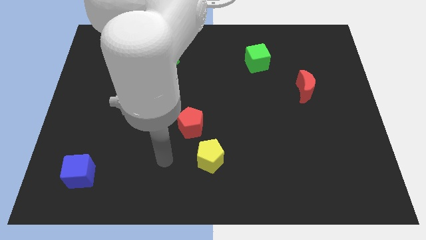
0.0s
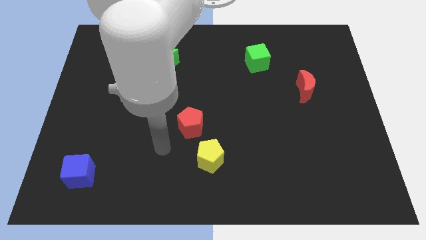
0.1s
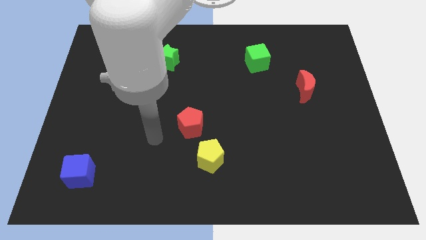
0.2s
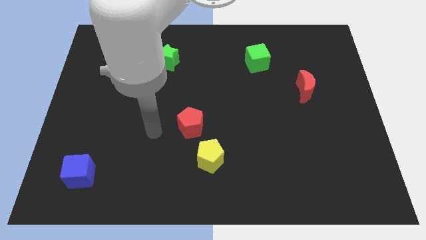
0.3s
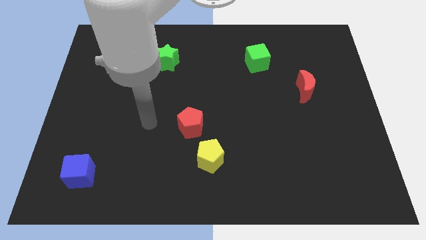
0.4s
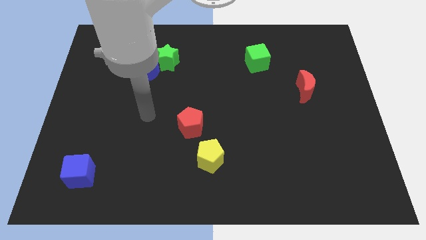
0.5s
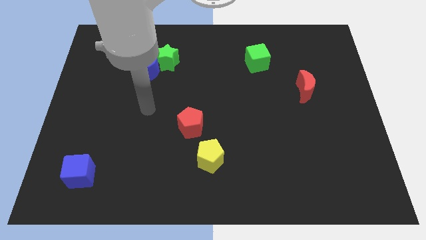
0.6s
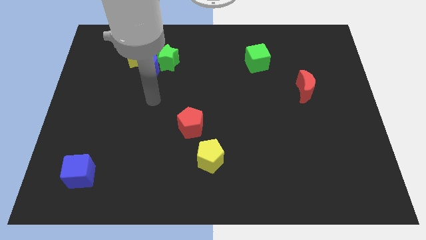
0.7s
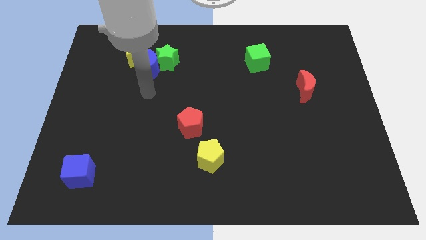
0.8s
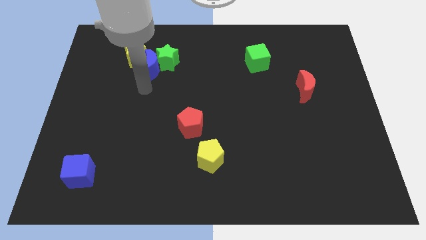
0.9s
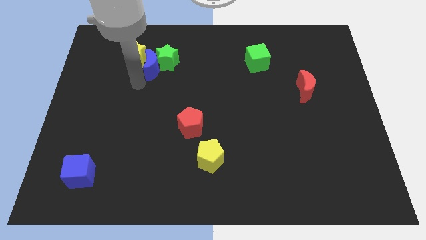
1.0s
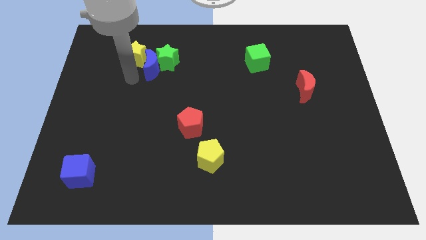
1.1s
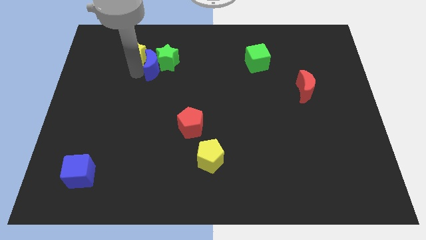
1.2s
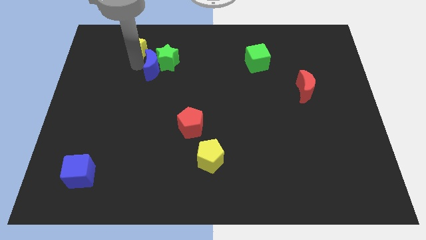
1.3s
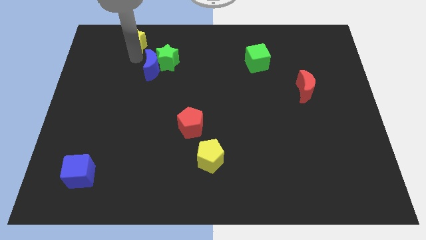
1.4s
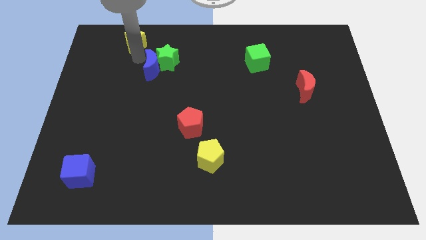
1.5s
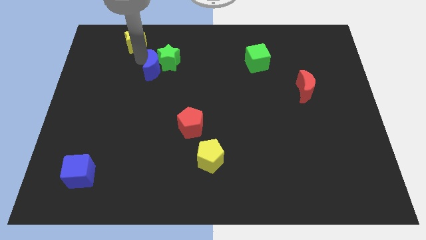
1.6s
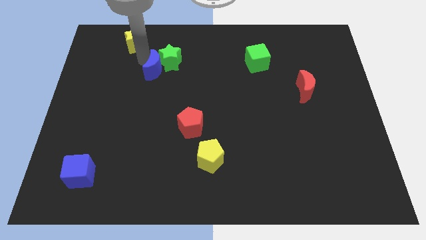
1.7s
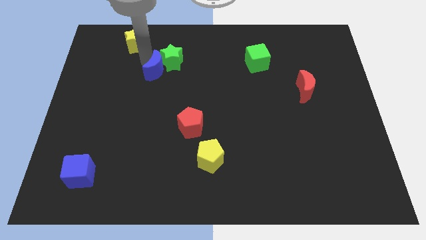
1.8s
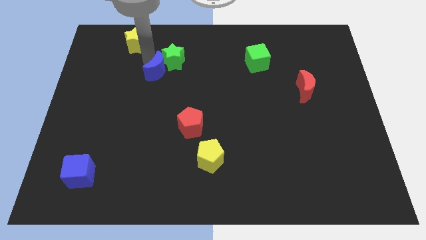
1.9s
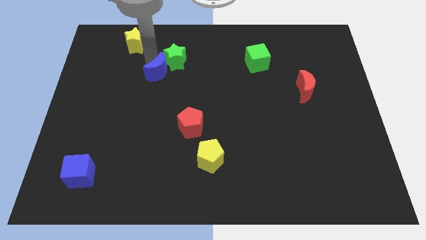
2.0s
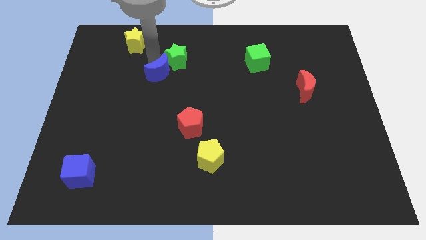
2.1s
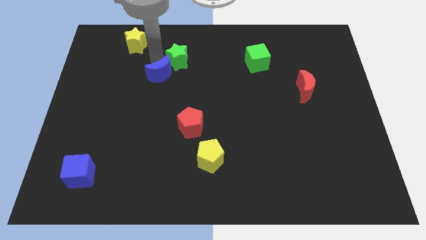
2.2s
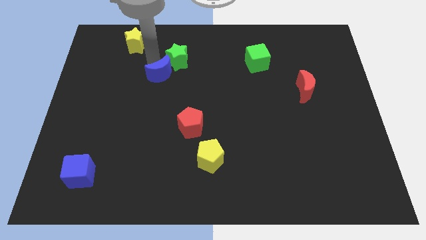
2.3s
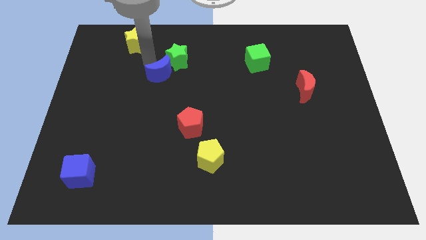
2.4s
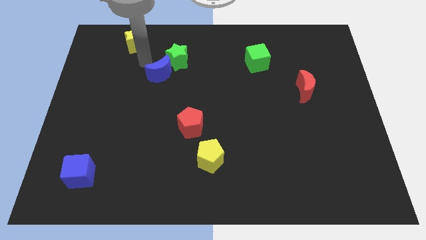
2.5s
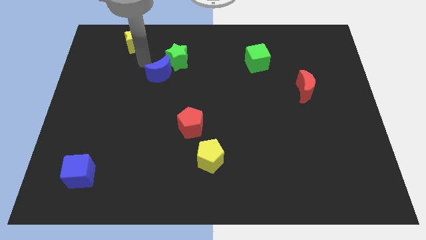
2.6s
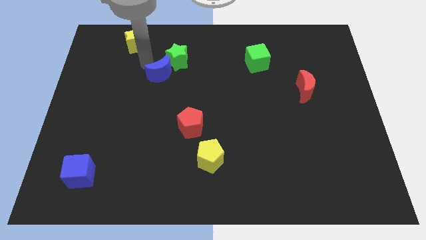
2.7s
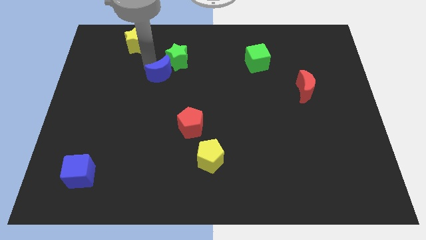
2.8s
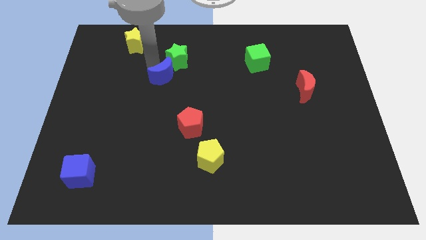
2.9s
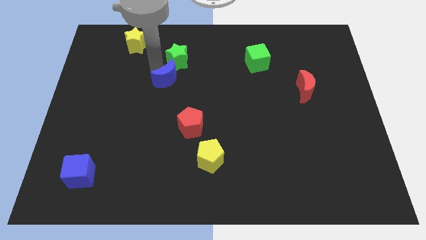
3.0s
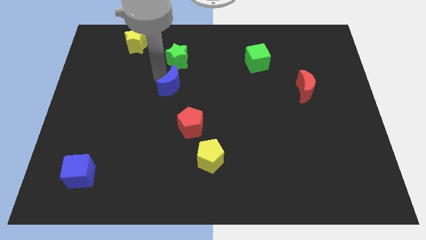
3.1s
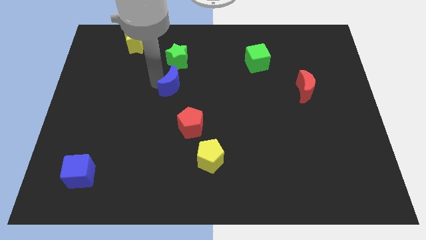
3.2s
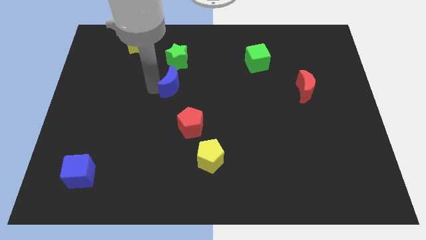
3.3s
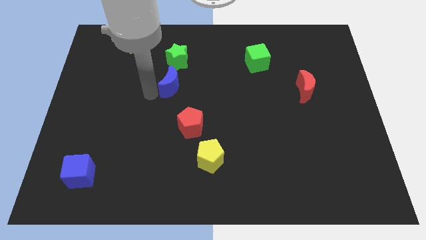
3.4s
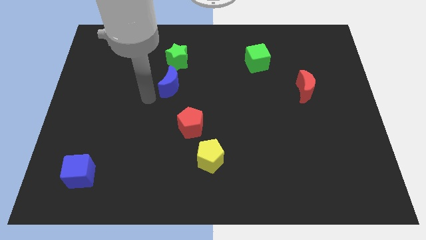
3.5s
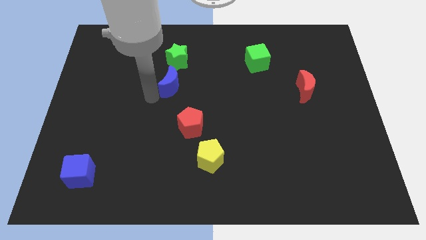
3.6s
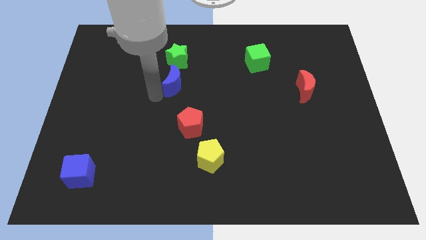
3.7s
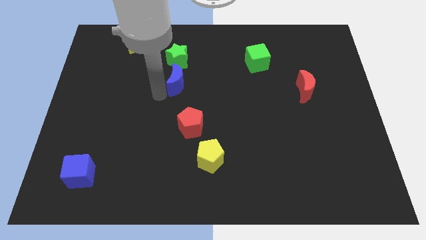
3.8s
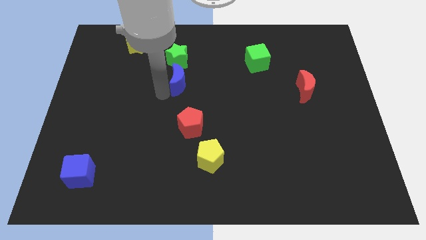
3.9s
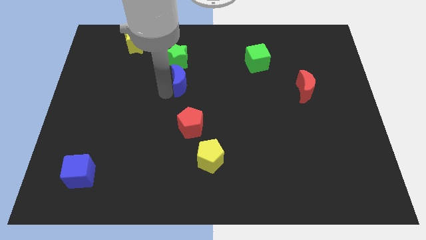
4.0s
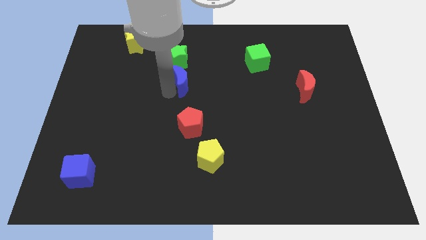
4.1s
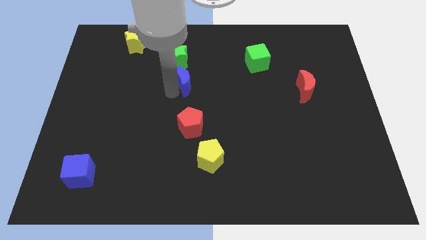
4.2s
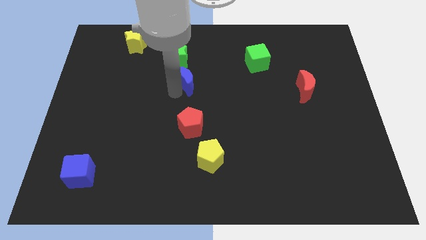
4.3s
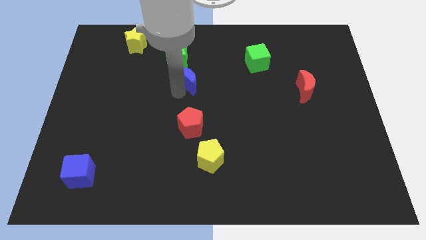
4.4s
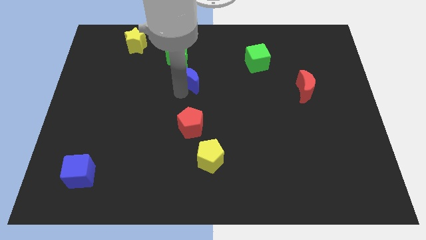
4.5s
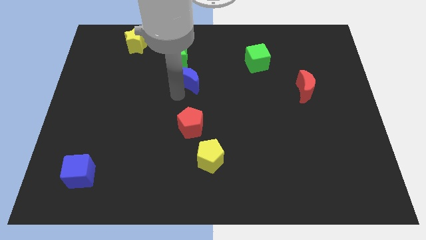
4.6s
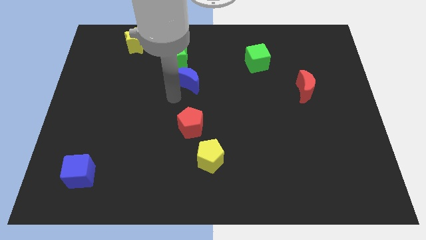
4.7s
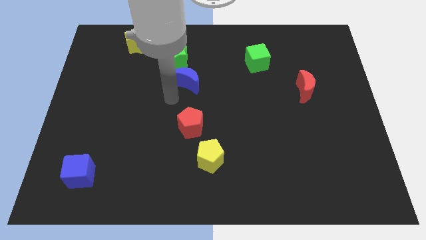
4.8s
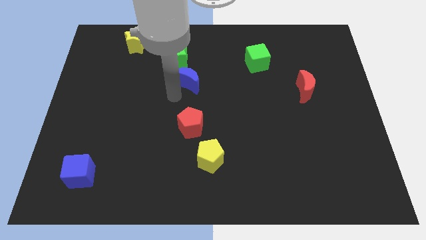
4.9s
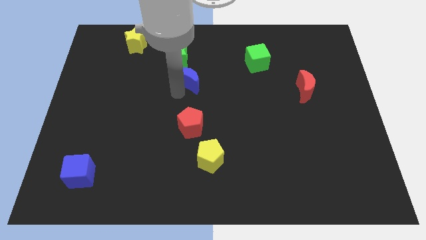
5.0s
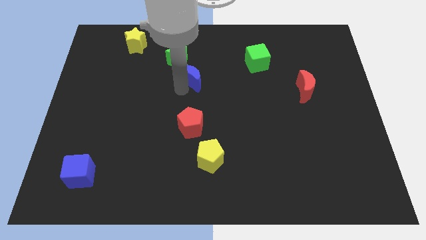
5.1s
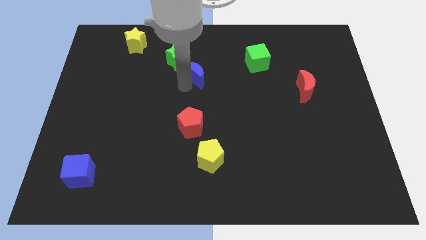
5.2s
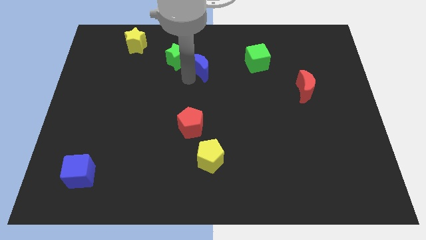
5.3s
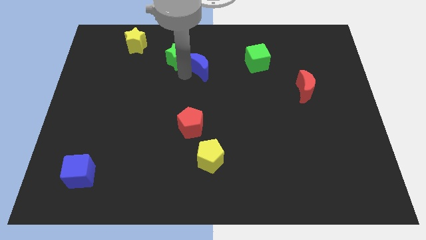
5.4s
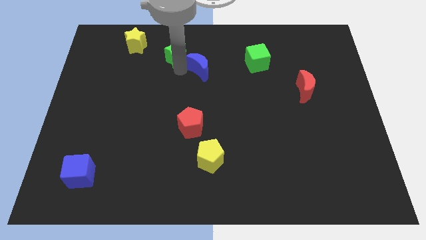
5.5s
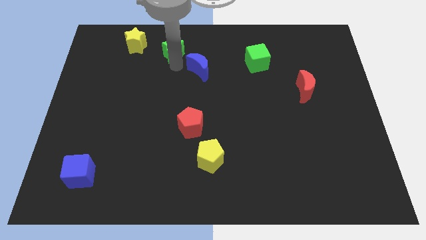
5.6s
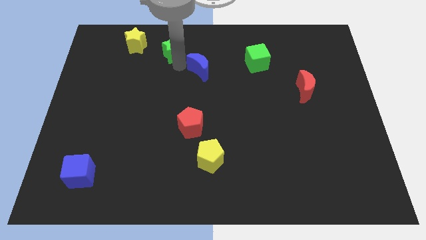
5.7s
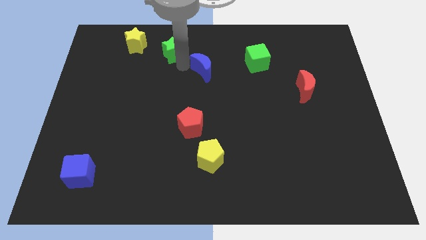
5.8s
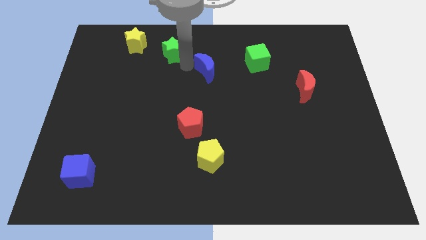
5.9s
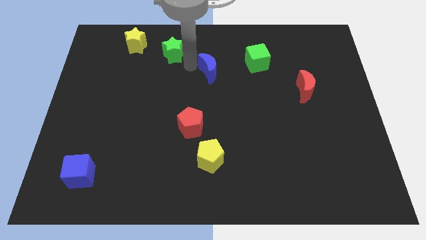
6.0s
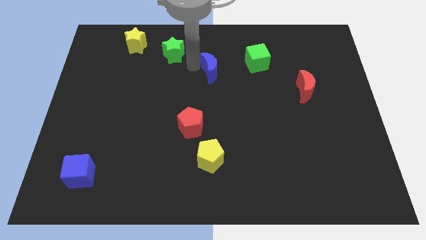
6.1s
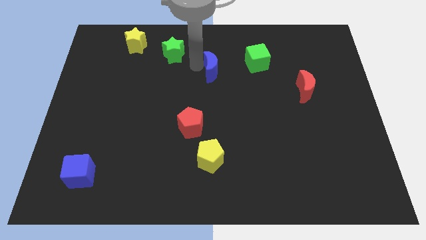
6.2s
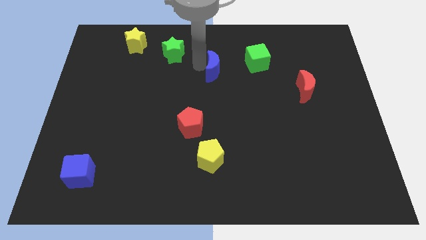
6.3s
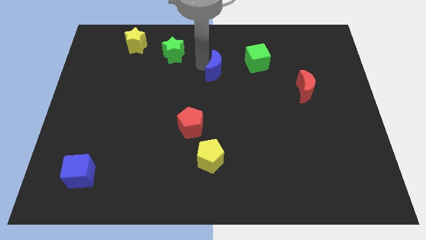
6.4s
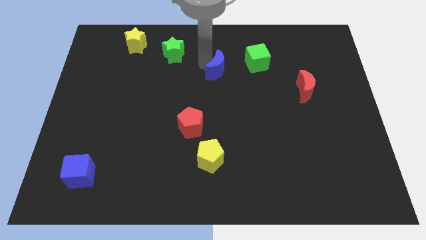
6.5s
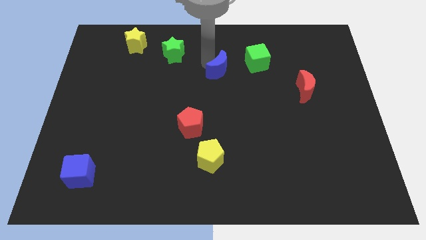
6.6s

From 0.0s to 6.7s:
push the blue moon to the bottom left of the green cube

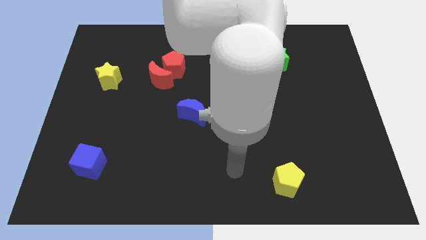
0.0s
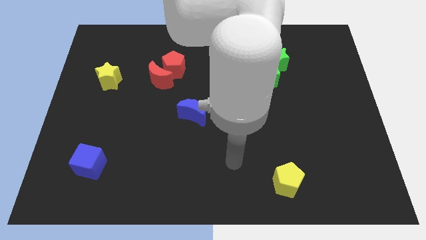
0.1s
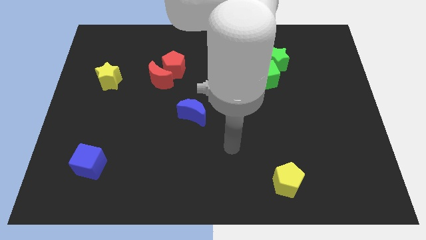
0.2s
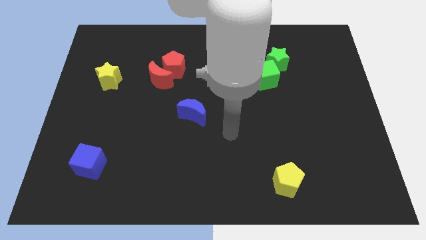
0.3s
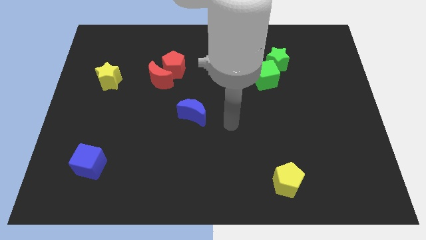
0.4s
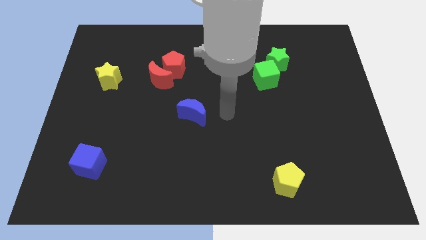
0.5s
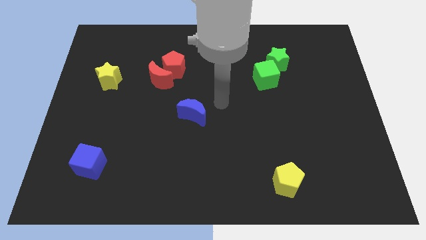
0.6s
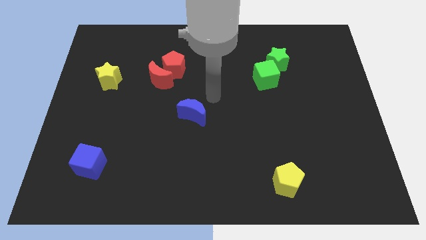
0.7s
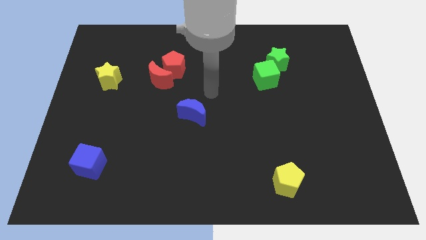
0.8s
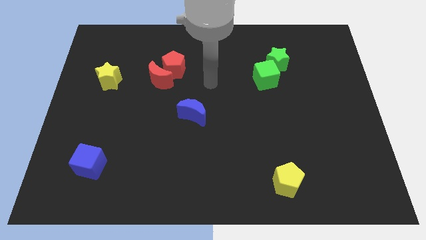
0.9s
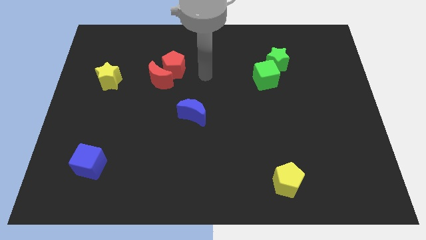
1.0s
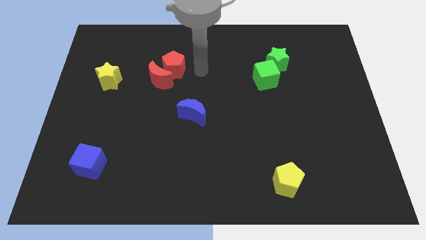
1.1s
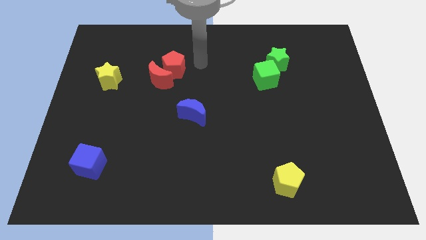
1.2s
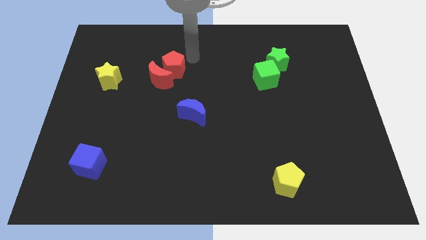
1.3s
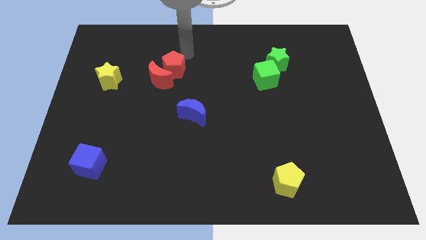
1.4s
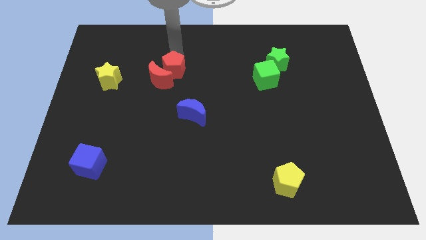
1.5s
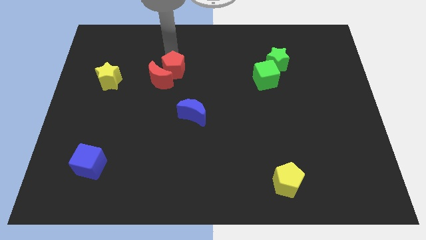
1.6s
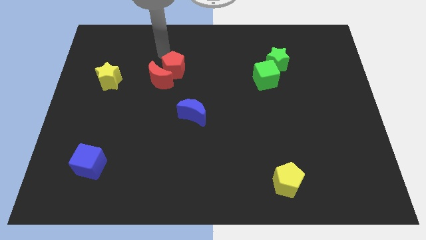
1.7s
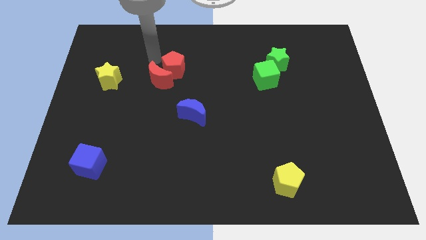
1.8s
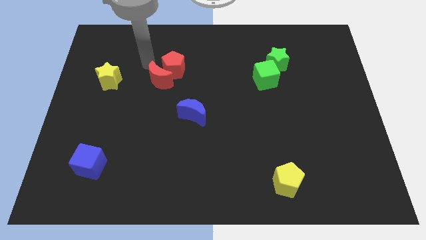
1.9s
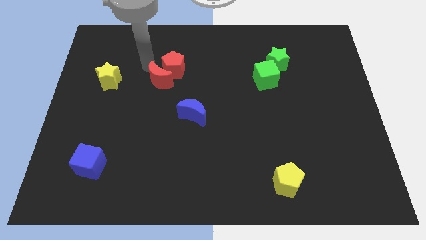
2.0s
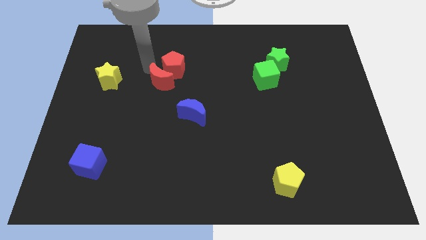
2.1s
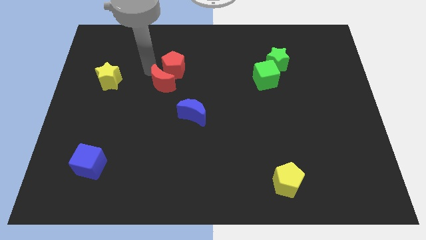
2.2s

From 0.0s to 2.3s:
put the red moon to the top left of the blue moon
